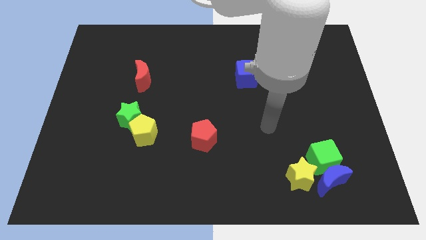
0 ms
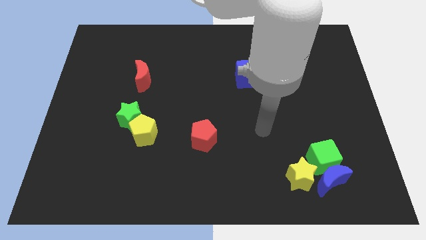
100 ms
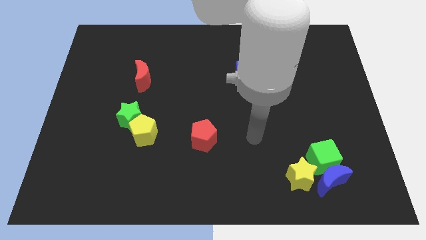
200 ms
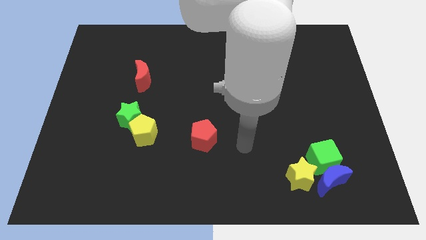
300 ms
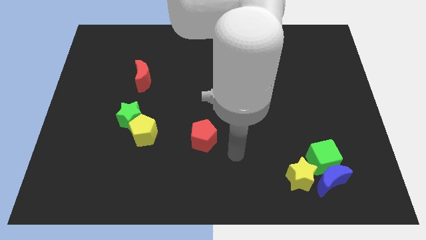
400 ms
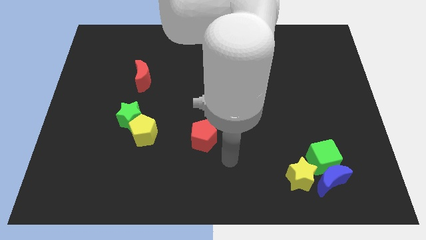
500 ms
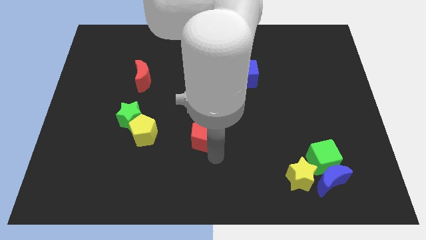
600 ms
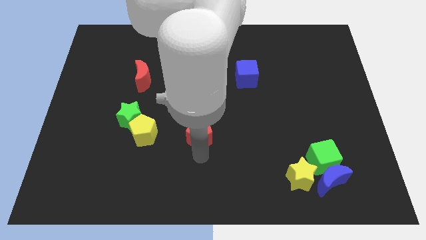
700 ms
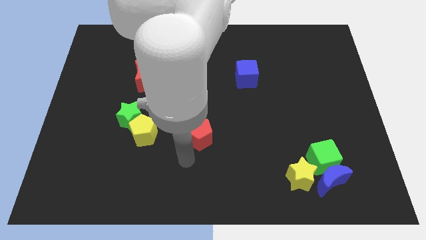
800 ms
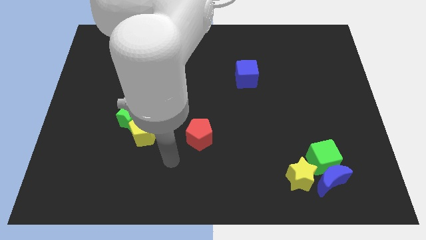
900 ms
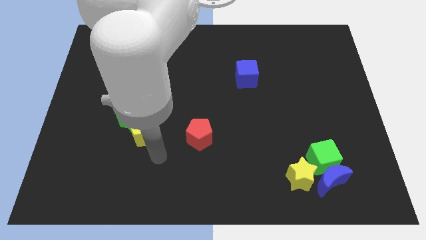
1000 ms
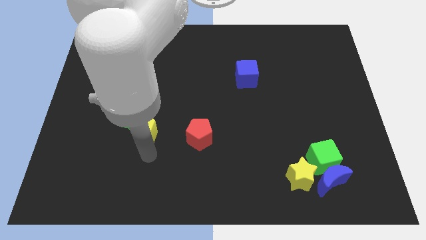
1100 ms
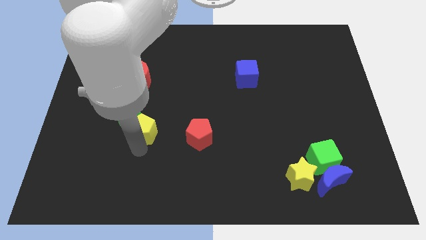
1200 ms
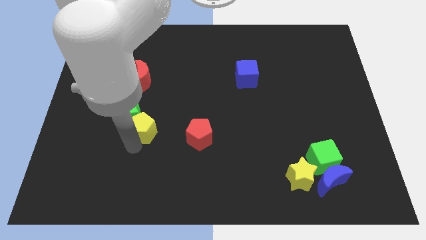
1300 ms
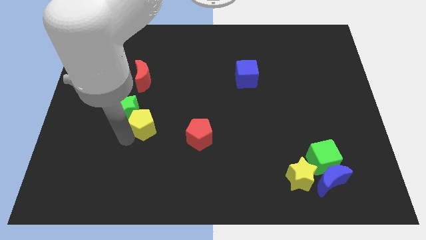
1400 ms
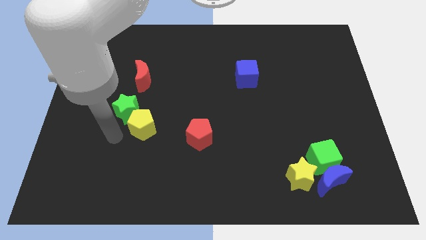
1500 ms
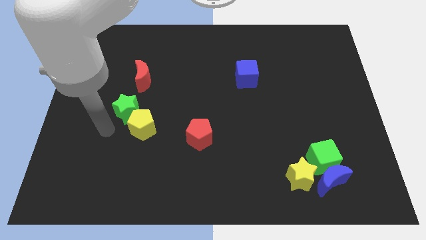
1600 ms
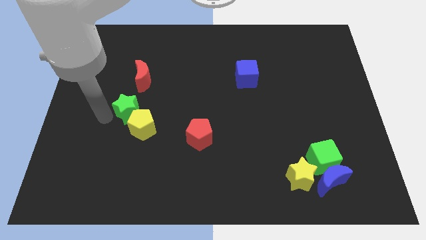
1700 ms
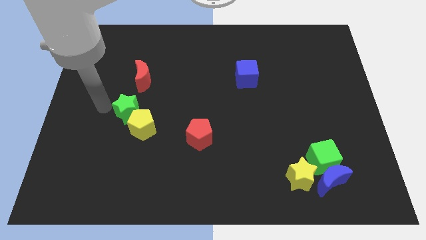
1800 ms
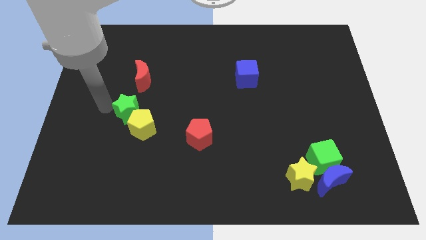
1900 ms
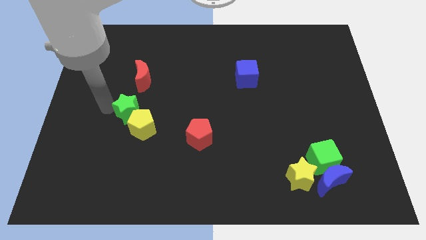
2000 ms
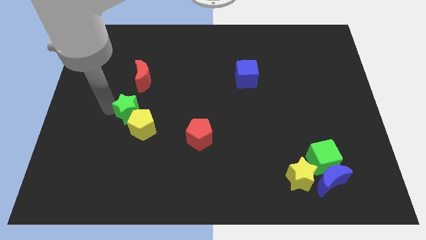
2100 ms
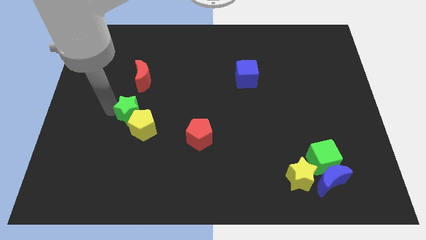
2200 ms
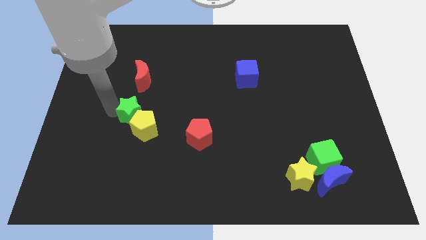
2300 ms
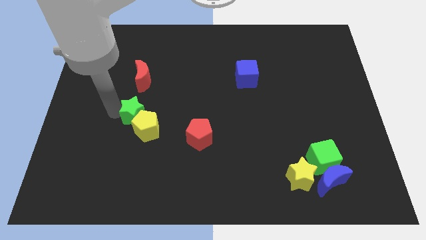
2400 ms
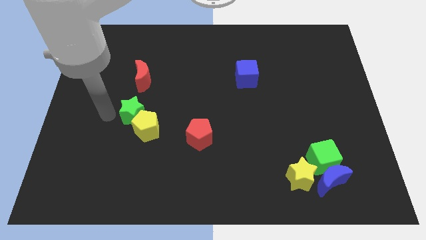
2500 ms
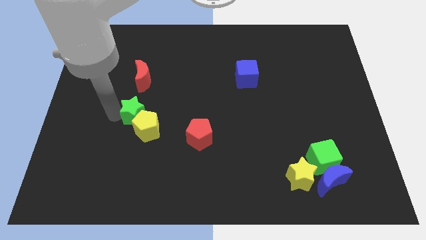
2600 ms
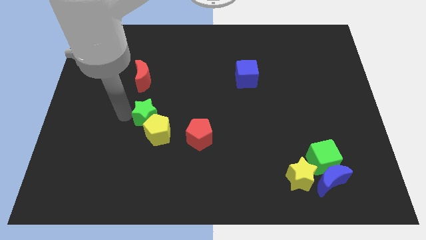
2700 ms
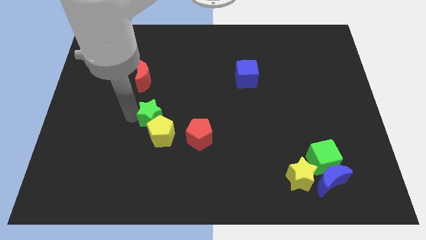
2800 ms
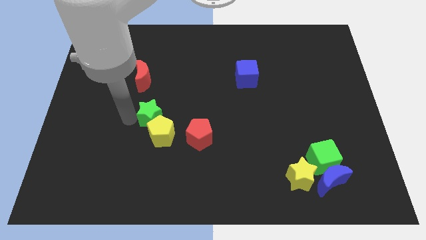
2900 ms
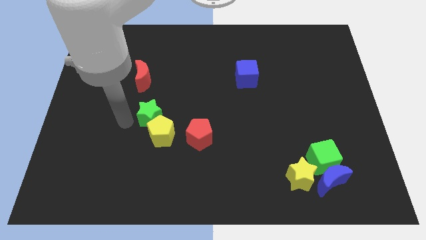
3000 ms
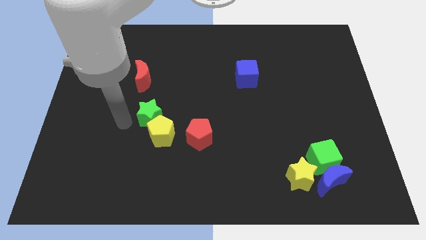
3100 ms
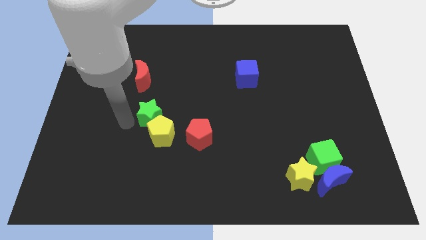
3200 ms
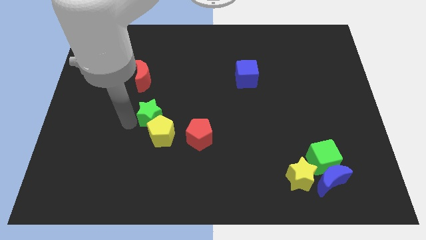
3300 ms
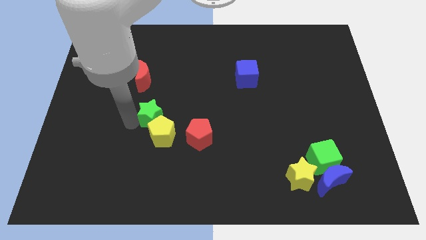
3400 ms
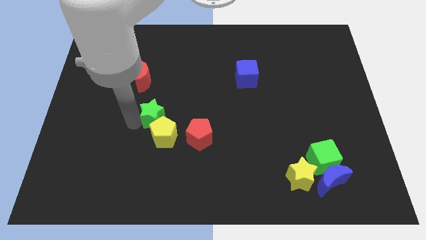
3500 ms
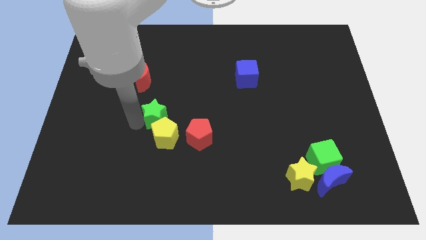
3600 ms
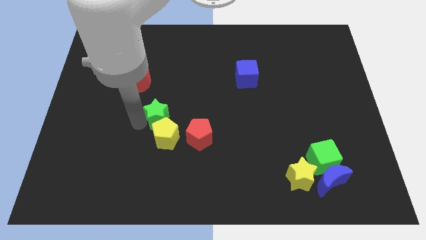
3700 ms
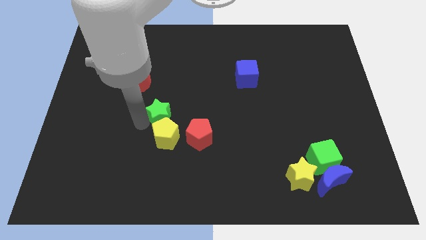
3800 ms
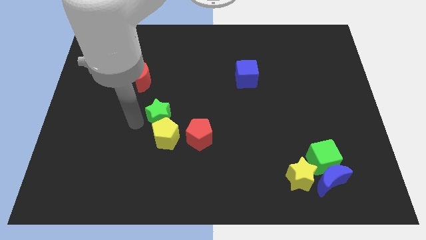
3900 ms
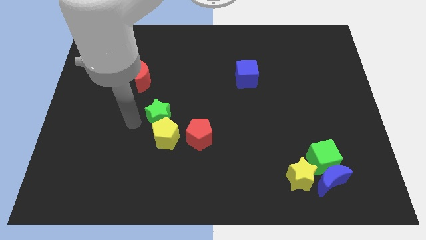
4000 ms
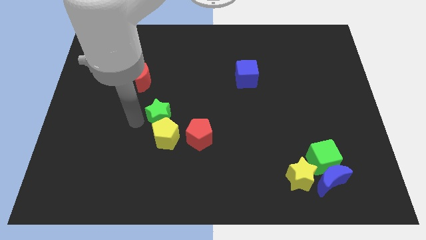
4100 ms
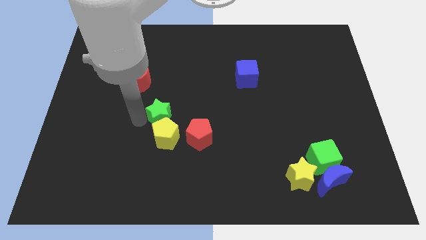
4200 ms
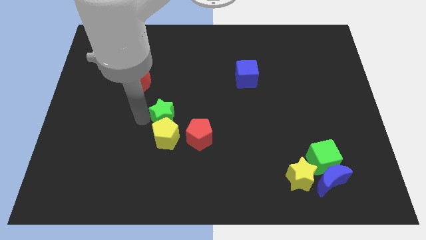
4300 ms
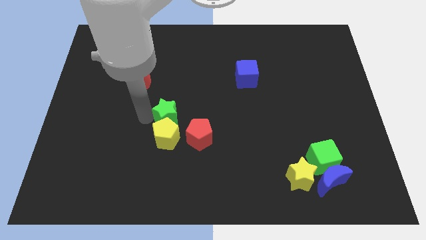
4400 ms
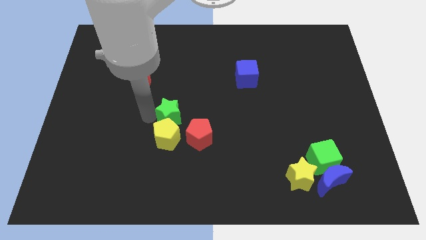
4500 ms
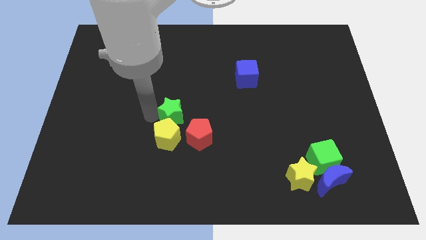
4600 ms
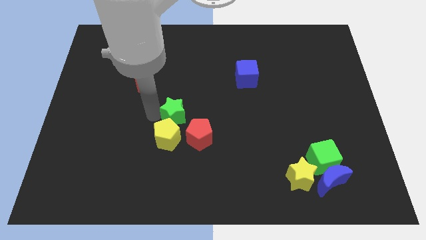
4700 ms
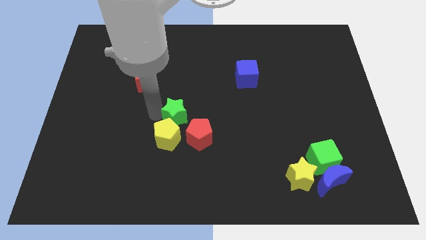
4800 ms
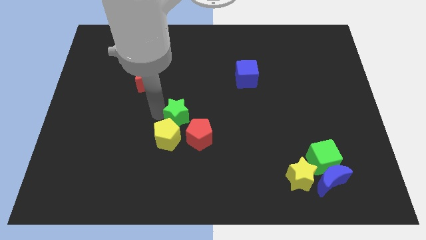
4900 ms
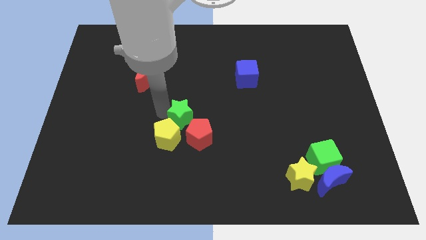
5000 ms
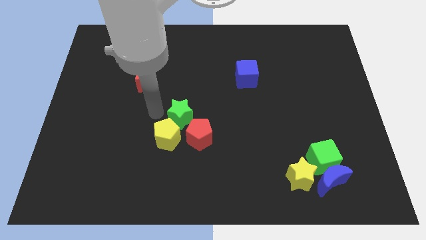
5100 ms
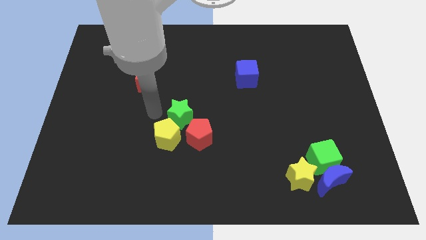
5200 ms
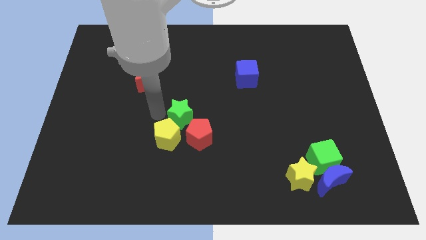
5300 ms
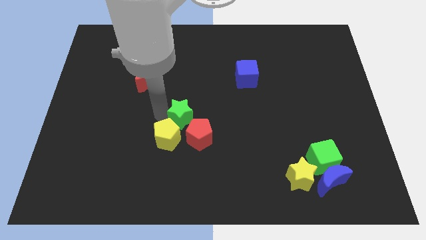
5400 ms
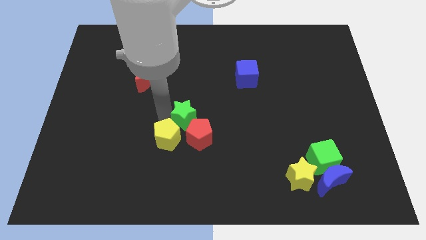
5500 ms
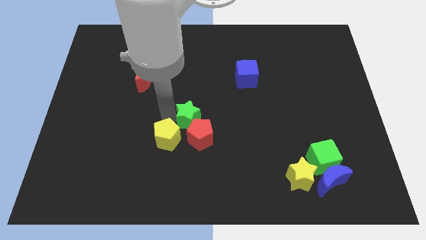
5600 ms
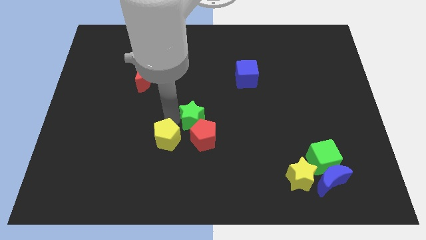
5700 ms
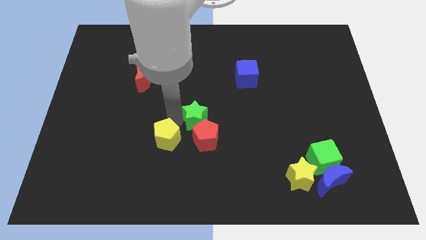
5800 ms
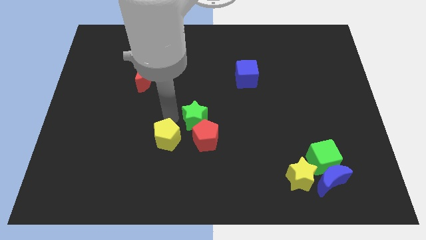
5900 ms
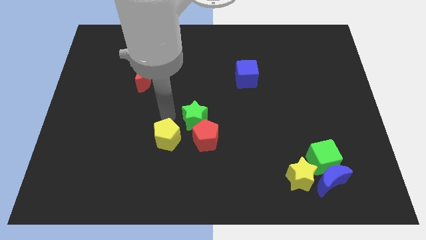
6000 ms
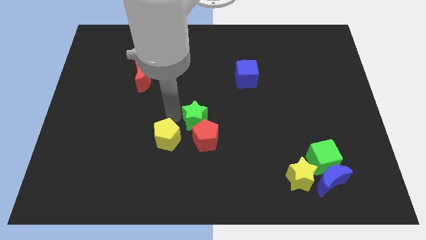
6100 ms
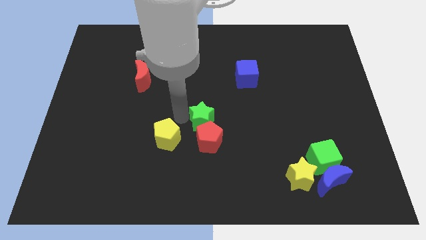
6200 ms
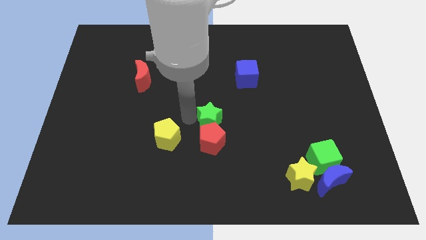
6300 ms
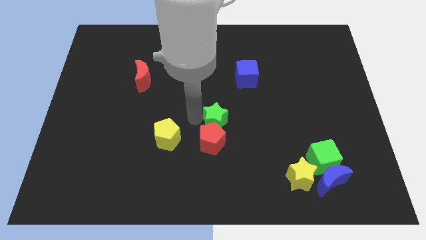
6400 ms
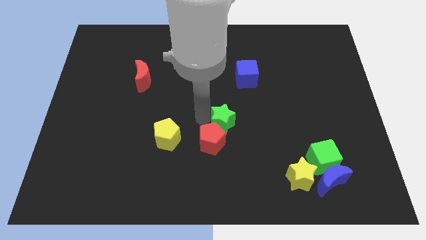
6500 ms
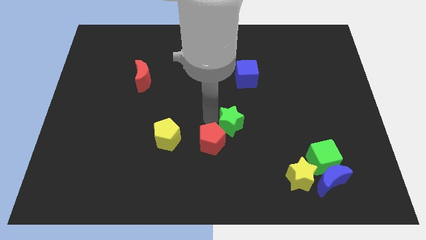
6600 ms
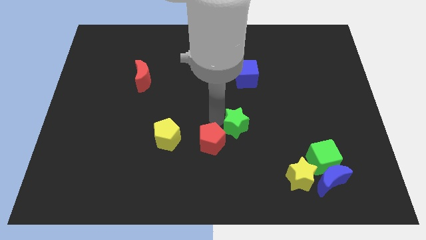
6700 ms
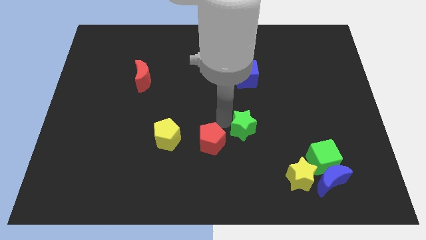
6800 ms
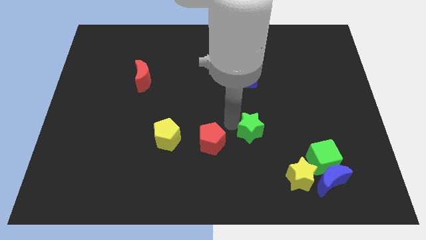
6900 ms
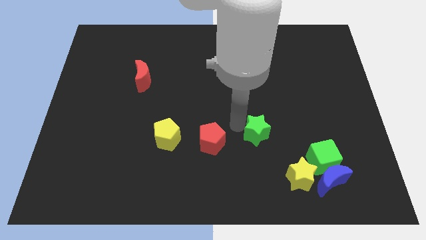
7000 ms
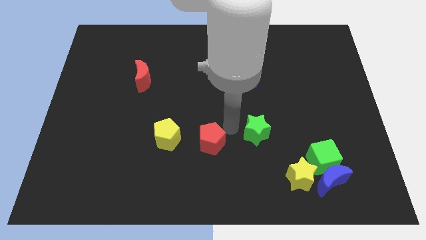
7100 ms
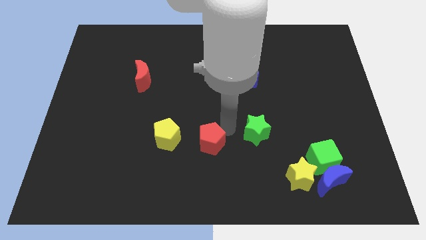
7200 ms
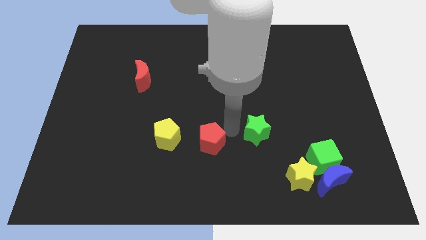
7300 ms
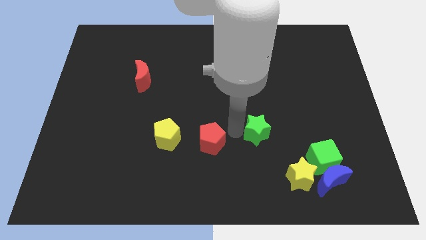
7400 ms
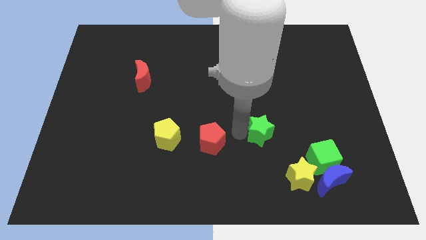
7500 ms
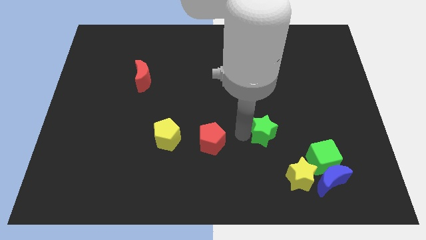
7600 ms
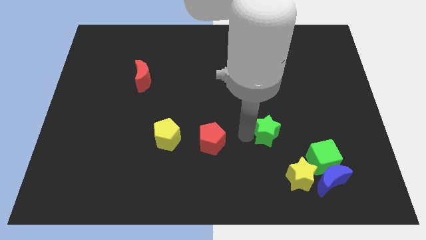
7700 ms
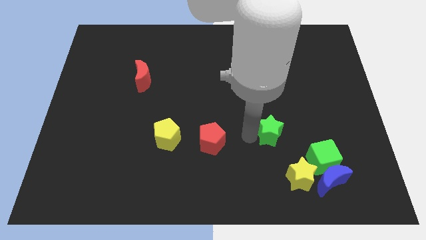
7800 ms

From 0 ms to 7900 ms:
push the green star to the top of the yellow star
